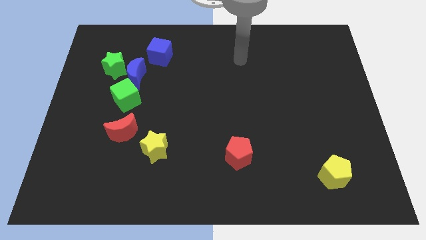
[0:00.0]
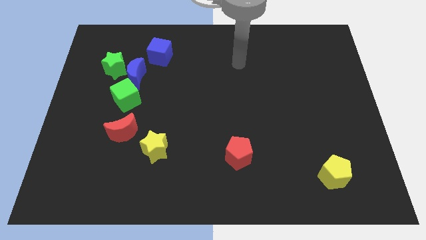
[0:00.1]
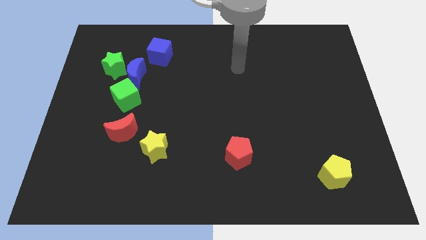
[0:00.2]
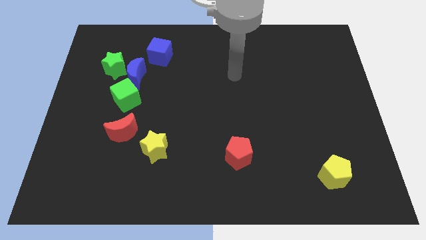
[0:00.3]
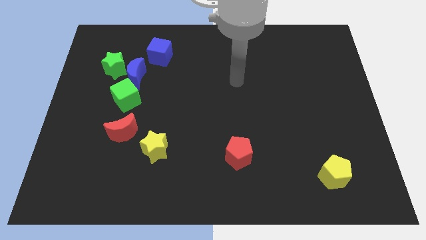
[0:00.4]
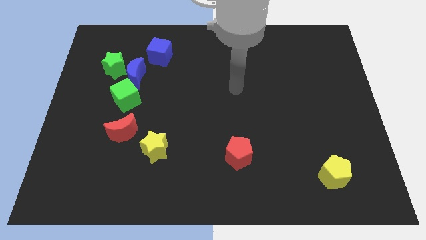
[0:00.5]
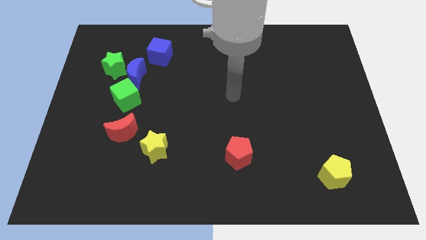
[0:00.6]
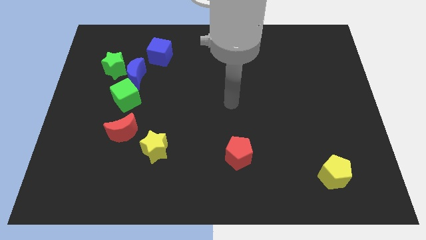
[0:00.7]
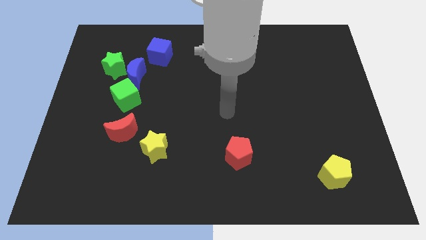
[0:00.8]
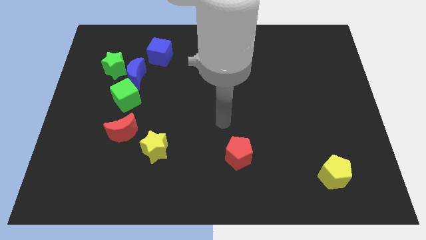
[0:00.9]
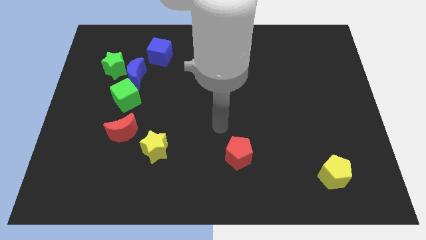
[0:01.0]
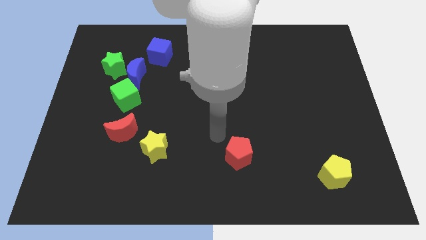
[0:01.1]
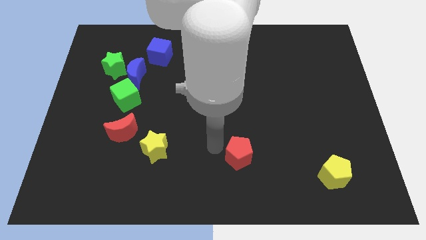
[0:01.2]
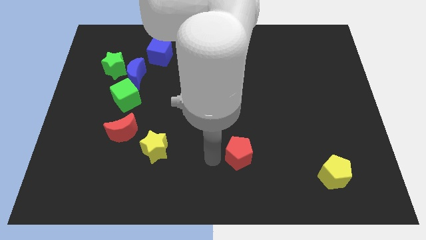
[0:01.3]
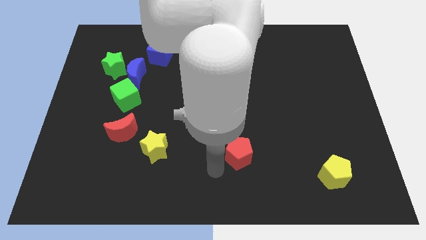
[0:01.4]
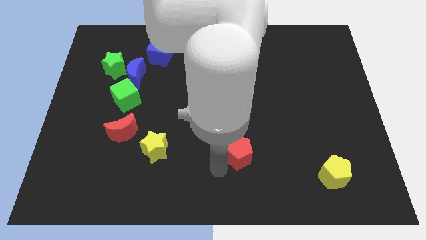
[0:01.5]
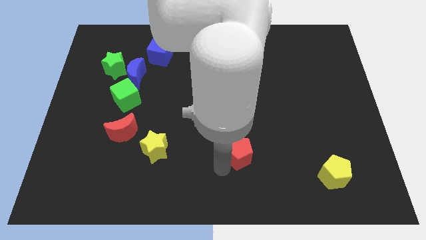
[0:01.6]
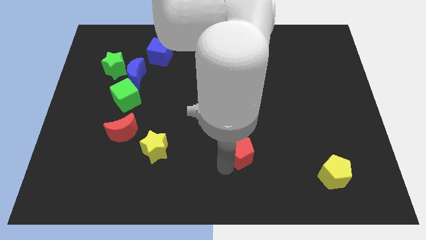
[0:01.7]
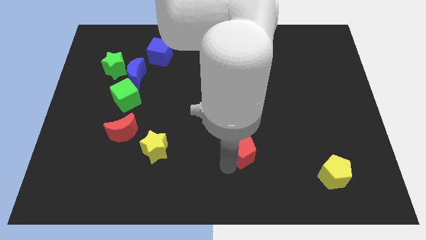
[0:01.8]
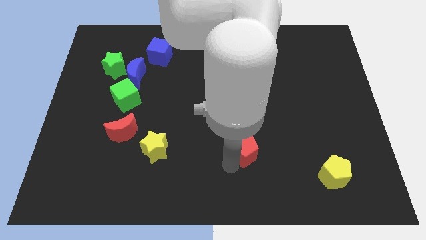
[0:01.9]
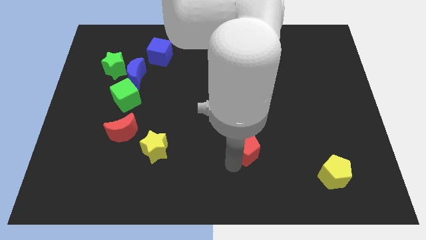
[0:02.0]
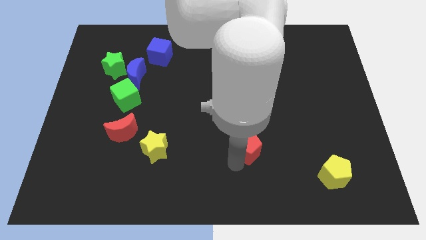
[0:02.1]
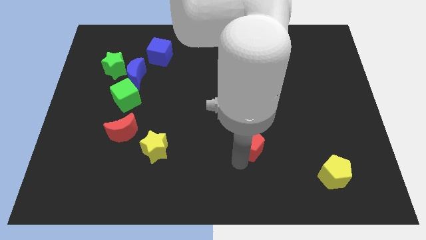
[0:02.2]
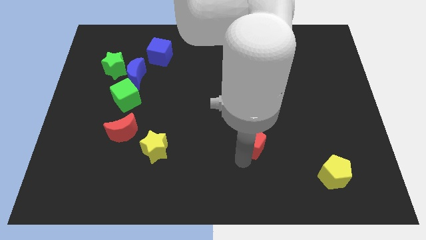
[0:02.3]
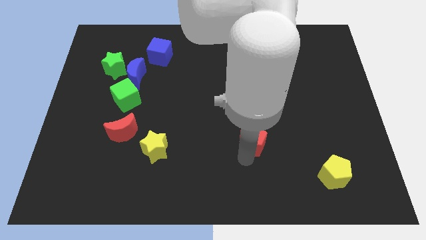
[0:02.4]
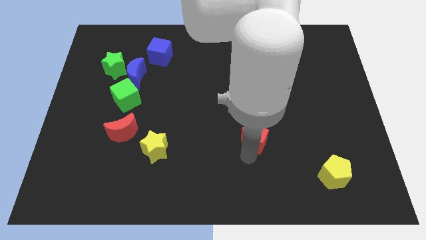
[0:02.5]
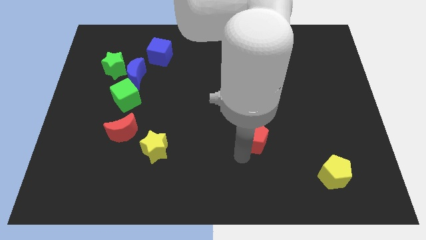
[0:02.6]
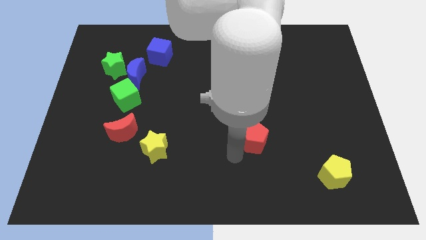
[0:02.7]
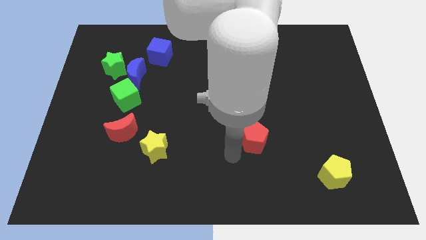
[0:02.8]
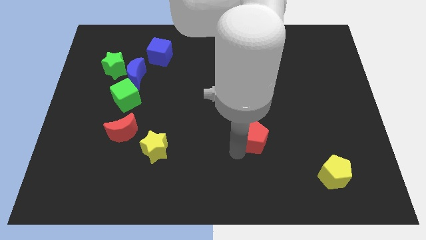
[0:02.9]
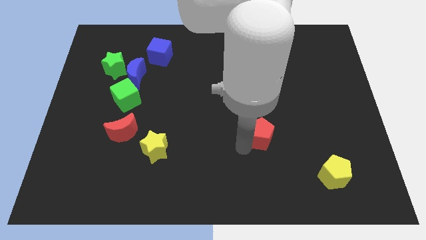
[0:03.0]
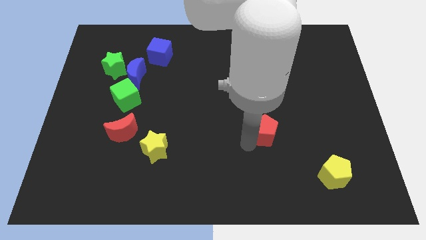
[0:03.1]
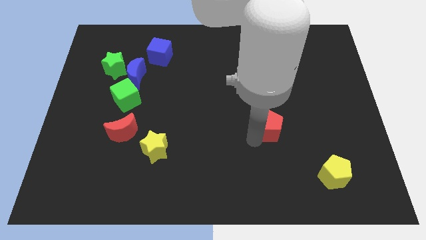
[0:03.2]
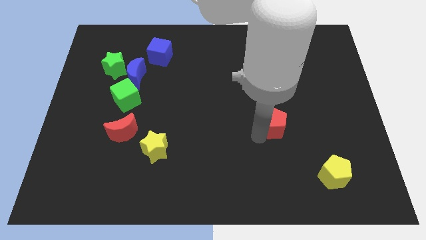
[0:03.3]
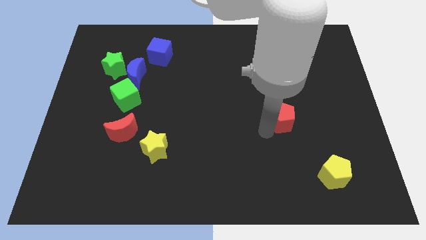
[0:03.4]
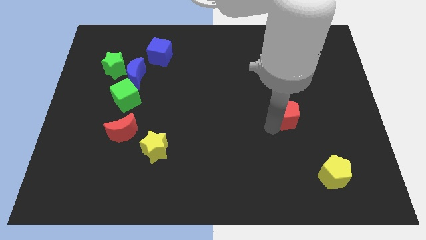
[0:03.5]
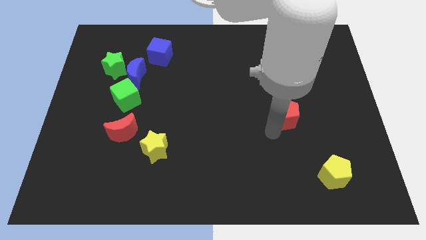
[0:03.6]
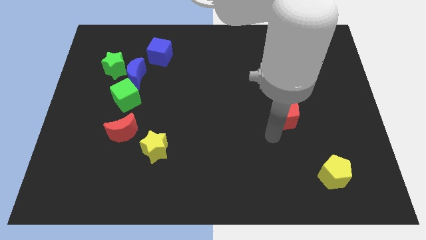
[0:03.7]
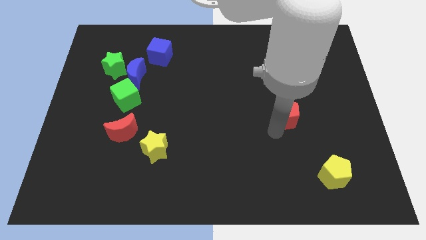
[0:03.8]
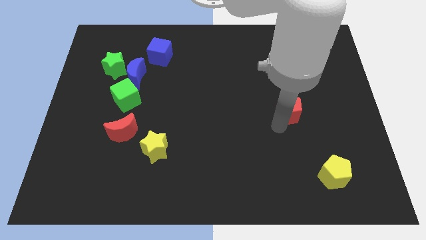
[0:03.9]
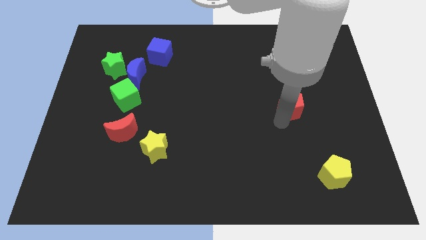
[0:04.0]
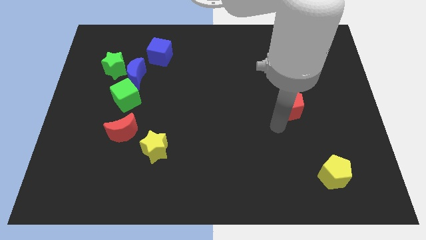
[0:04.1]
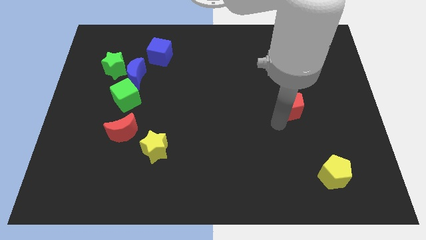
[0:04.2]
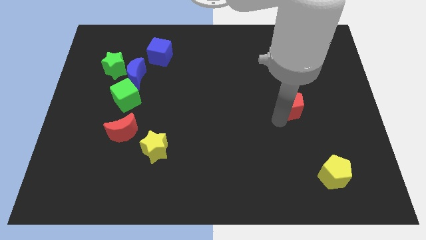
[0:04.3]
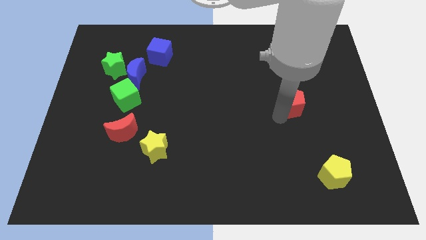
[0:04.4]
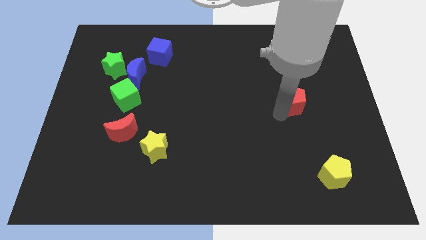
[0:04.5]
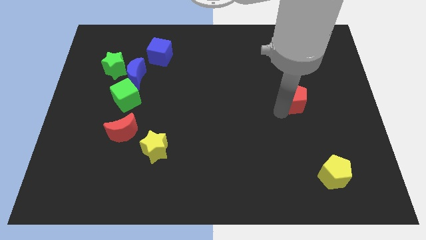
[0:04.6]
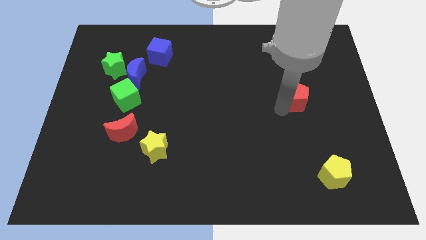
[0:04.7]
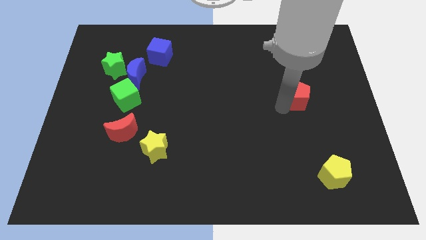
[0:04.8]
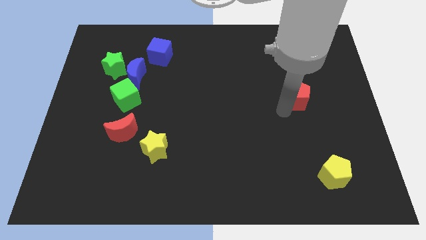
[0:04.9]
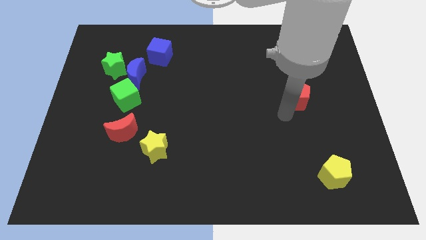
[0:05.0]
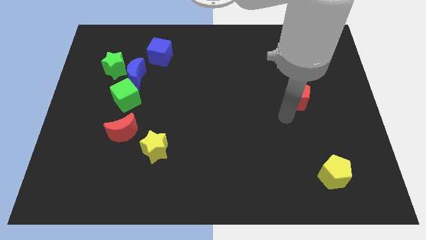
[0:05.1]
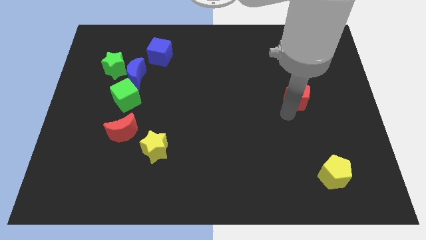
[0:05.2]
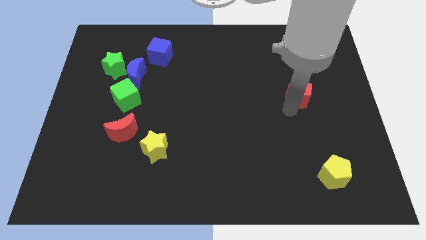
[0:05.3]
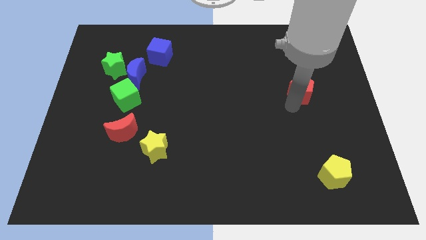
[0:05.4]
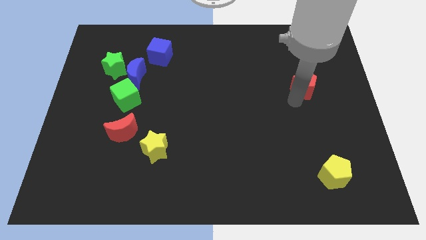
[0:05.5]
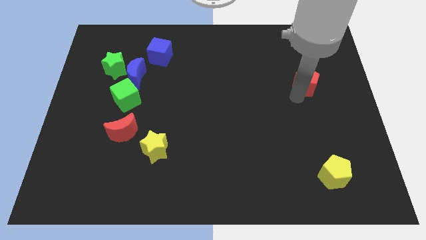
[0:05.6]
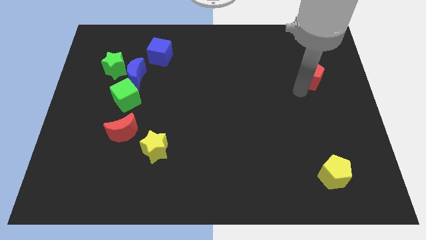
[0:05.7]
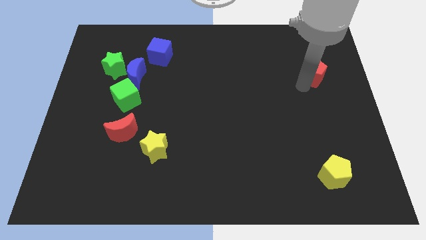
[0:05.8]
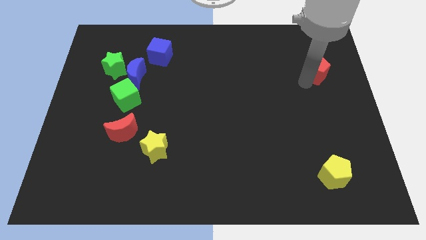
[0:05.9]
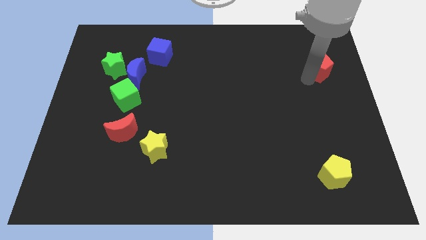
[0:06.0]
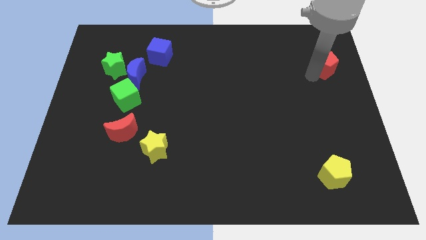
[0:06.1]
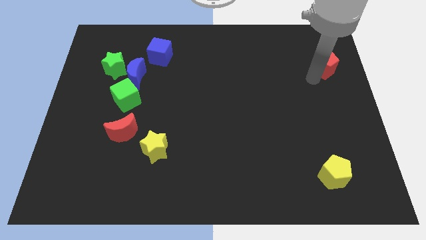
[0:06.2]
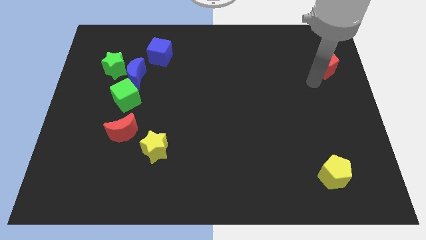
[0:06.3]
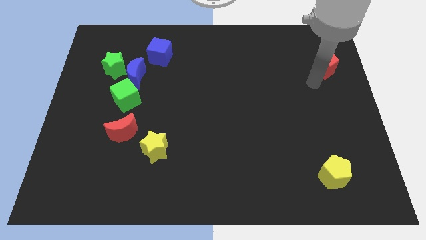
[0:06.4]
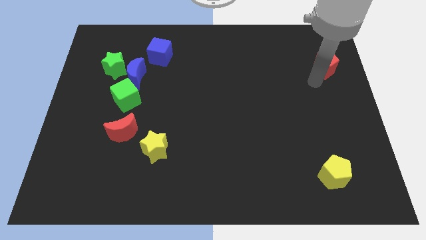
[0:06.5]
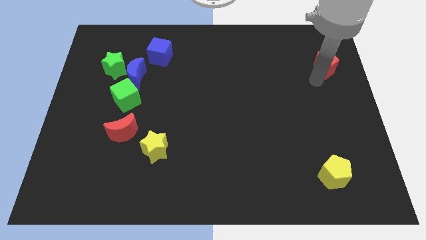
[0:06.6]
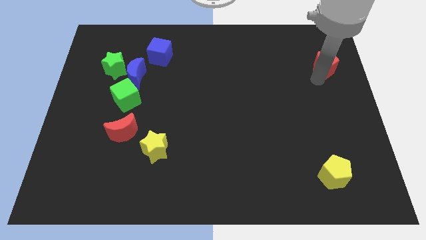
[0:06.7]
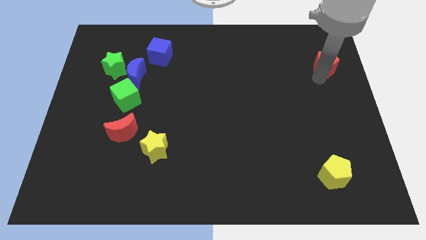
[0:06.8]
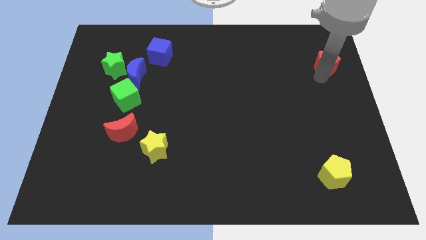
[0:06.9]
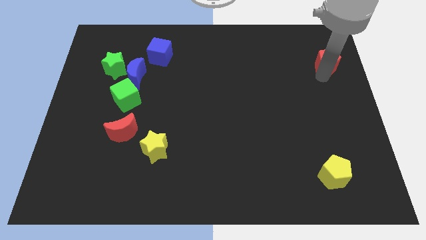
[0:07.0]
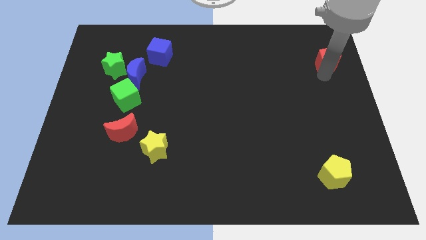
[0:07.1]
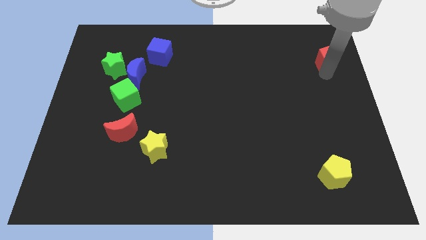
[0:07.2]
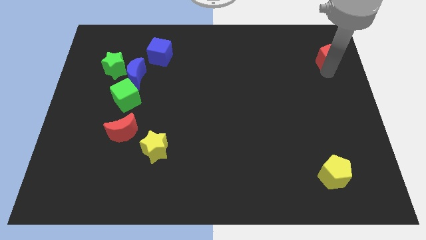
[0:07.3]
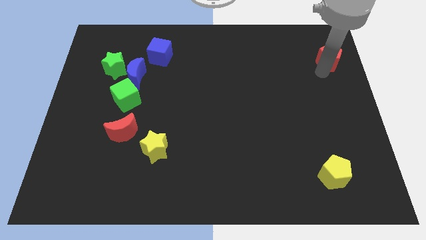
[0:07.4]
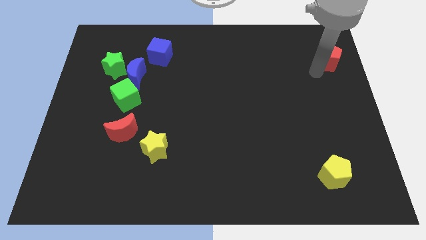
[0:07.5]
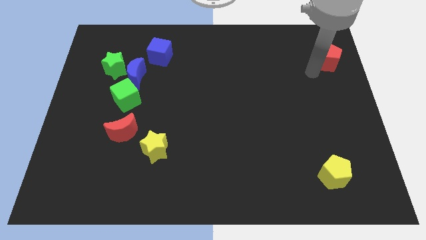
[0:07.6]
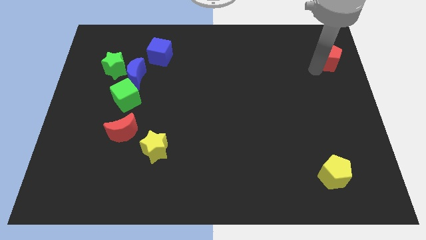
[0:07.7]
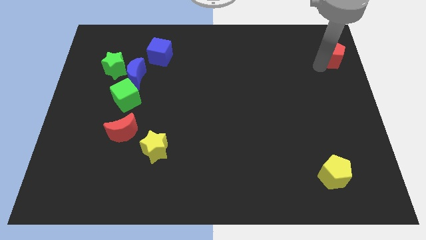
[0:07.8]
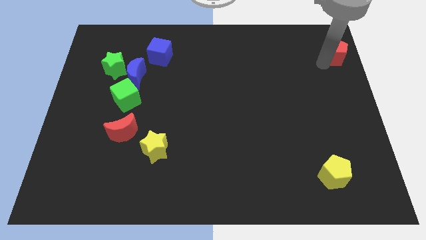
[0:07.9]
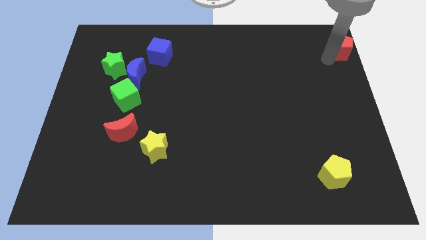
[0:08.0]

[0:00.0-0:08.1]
slide the red pentagon to the top right of the board
